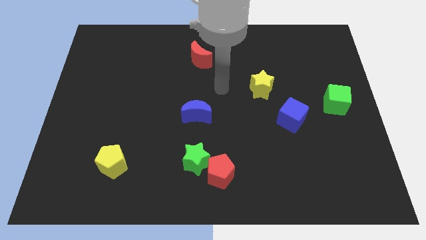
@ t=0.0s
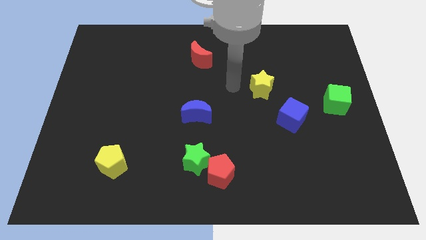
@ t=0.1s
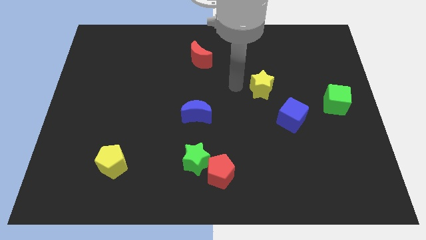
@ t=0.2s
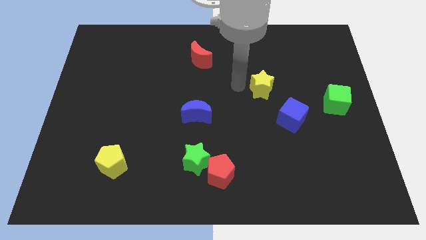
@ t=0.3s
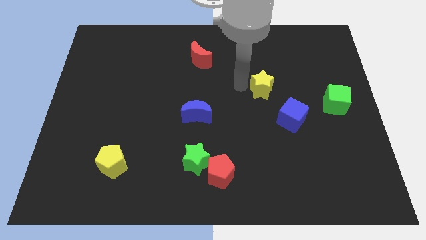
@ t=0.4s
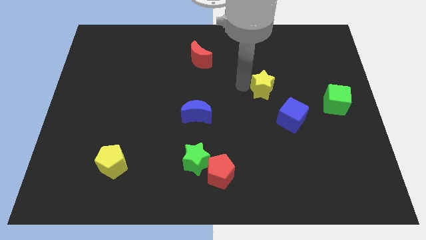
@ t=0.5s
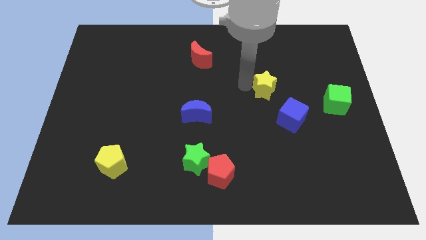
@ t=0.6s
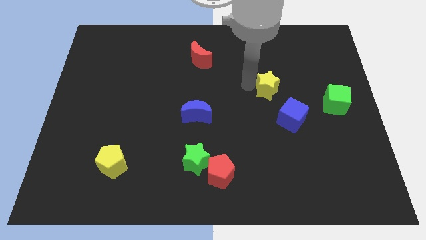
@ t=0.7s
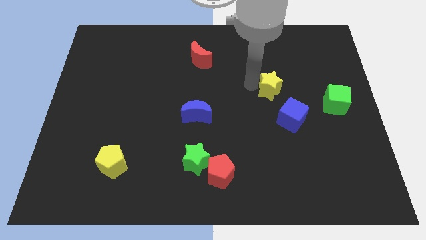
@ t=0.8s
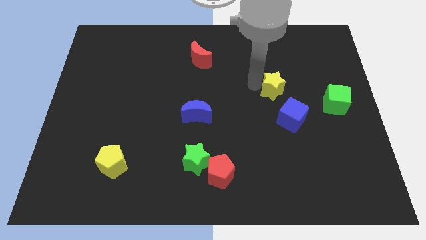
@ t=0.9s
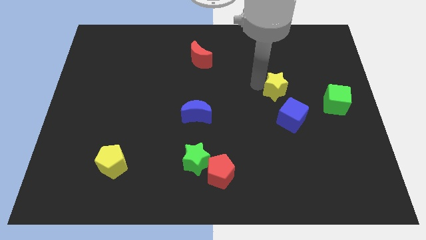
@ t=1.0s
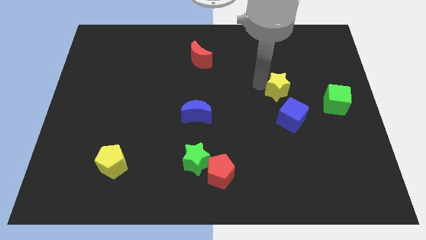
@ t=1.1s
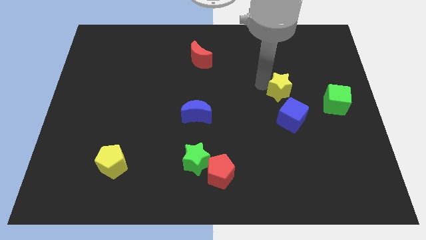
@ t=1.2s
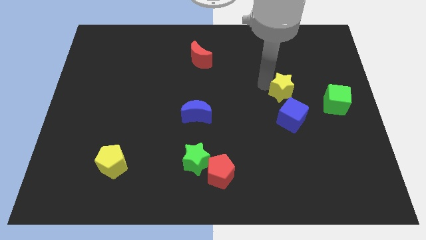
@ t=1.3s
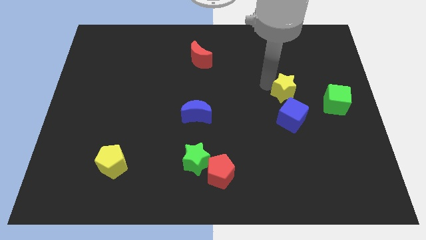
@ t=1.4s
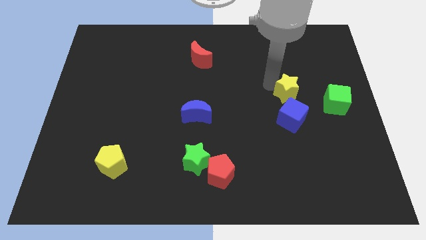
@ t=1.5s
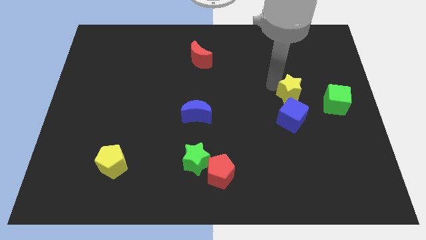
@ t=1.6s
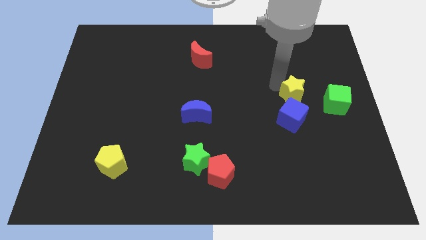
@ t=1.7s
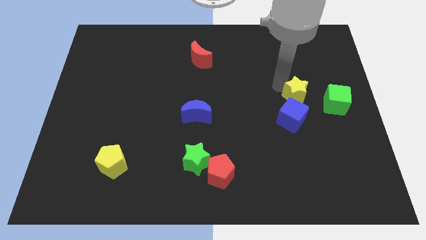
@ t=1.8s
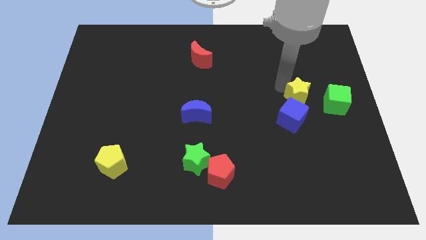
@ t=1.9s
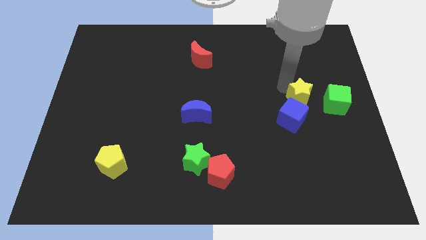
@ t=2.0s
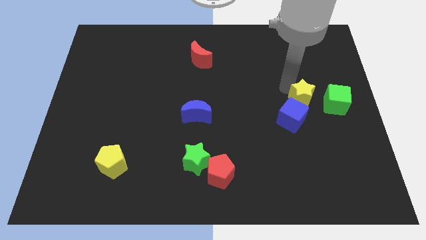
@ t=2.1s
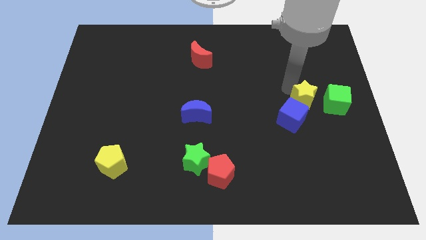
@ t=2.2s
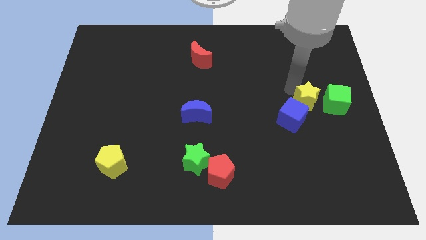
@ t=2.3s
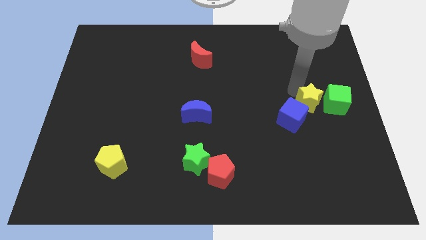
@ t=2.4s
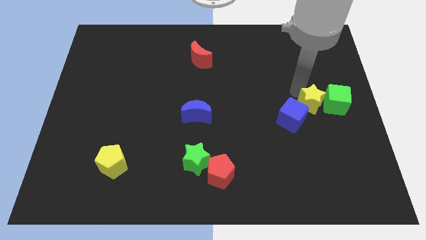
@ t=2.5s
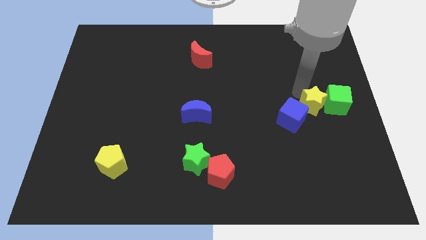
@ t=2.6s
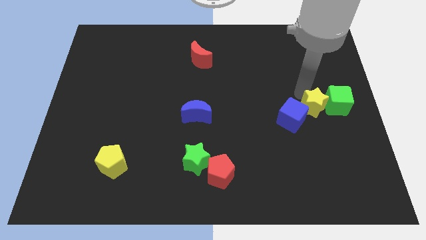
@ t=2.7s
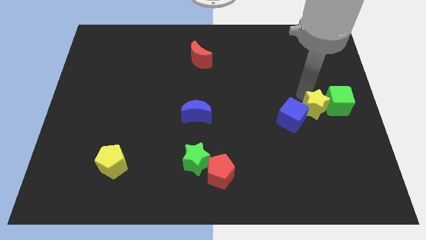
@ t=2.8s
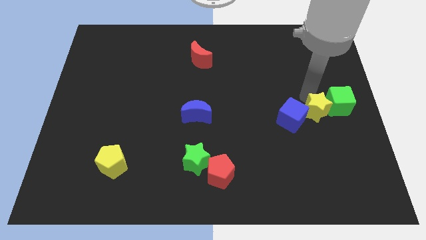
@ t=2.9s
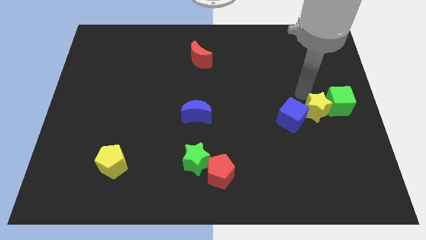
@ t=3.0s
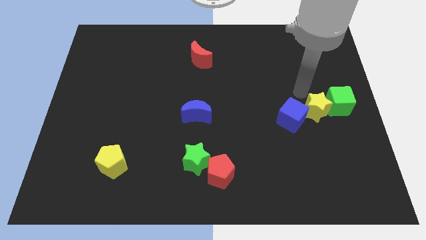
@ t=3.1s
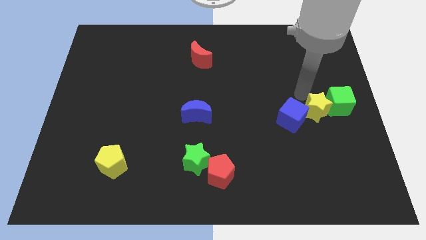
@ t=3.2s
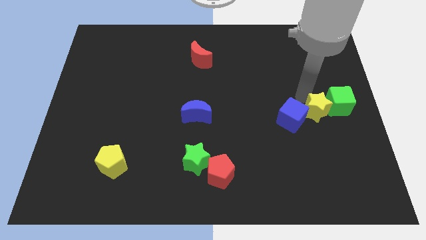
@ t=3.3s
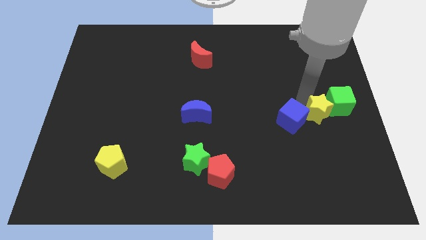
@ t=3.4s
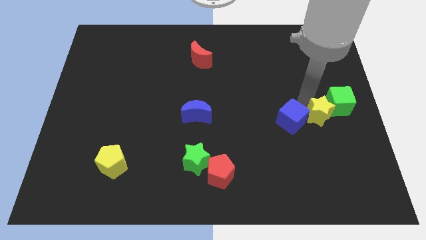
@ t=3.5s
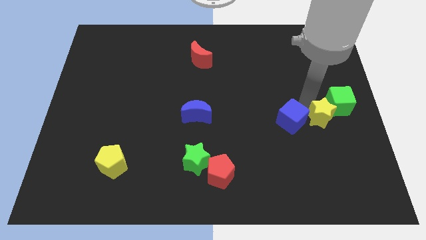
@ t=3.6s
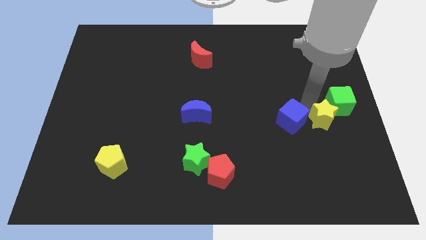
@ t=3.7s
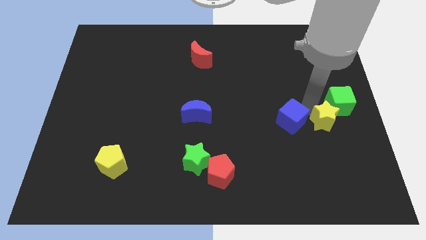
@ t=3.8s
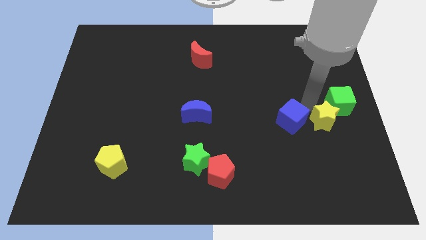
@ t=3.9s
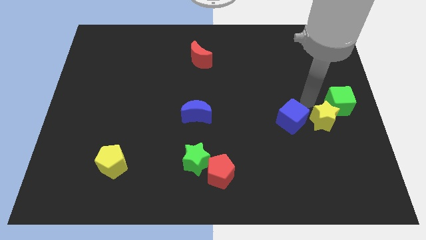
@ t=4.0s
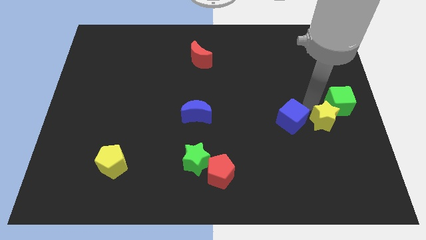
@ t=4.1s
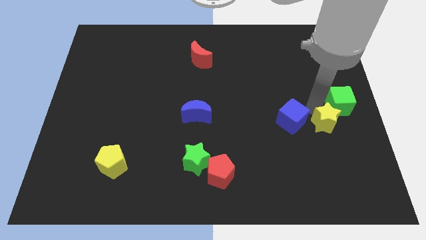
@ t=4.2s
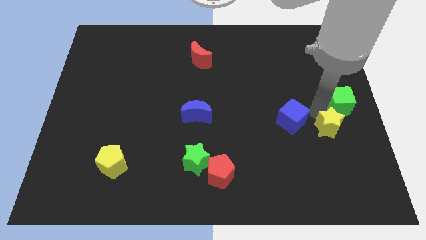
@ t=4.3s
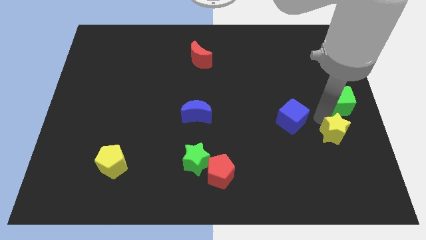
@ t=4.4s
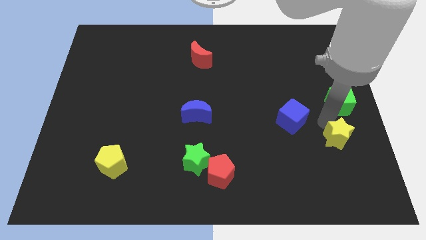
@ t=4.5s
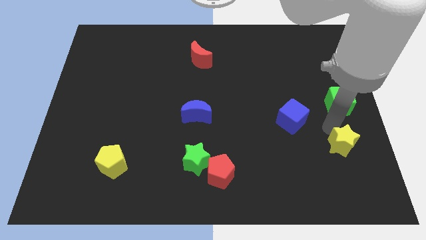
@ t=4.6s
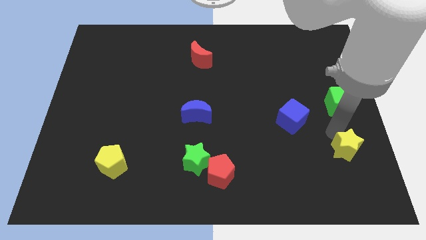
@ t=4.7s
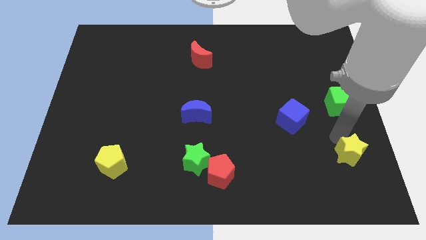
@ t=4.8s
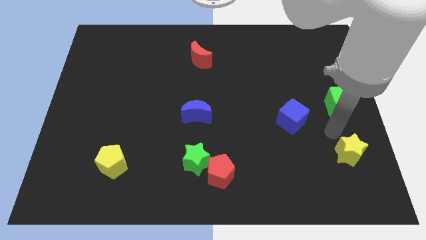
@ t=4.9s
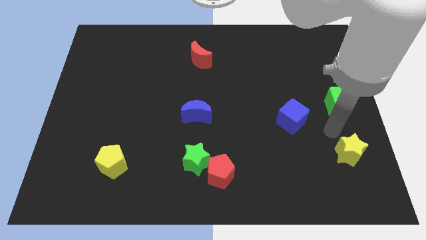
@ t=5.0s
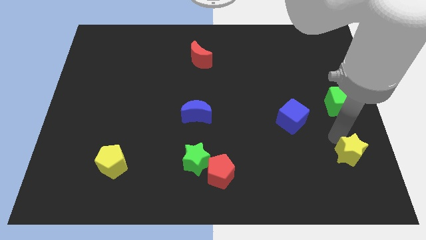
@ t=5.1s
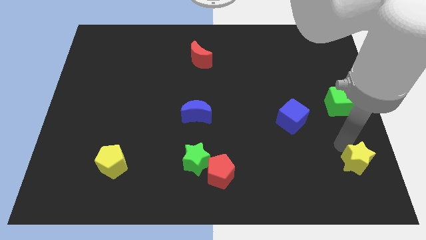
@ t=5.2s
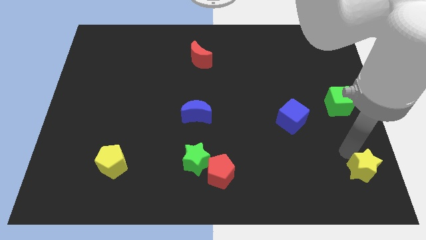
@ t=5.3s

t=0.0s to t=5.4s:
push the yellow star to the lower right corner
